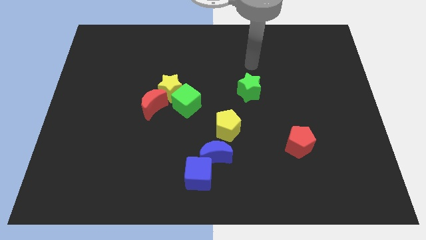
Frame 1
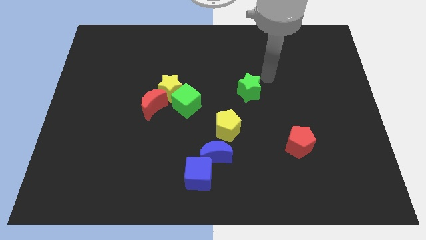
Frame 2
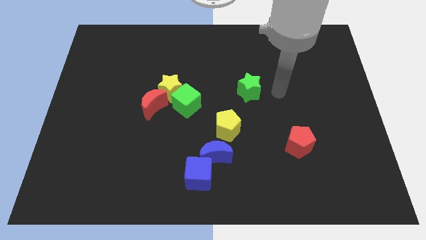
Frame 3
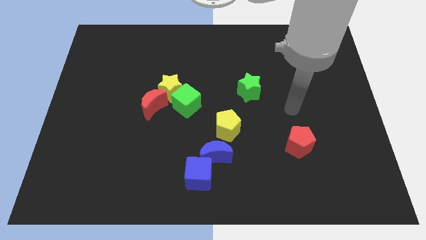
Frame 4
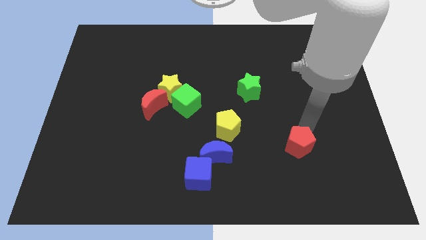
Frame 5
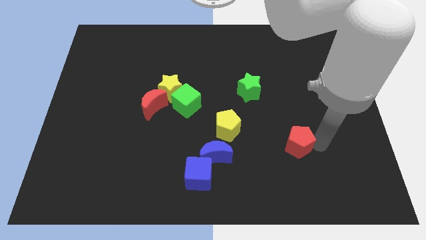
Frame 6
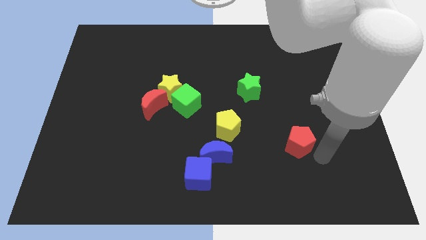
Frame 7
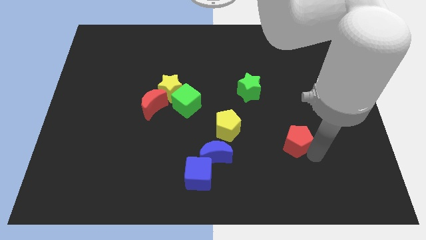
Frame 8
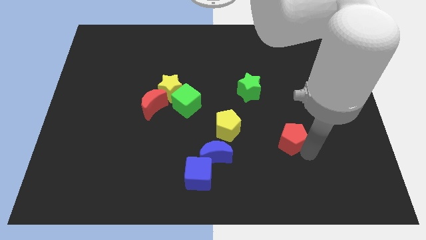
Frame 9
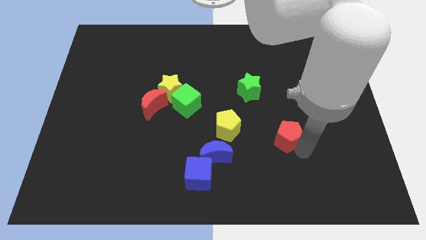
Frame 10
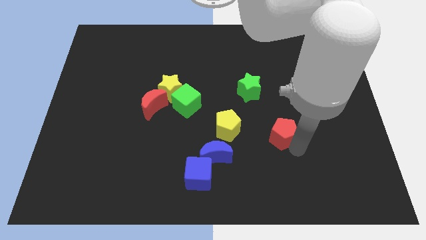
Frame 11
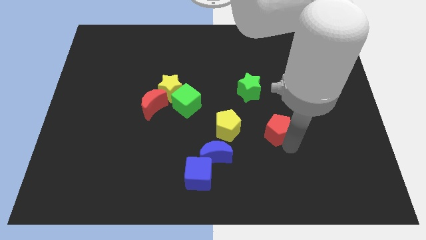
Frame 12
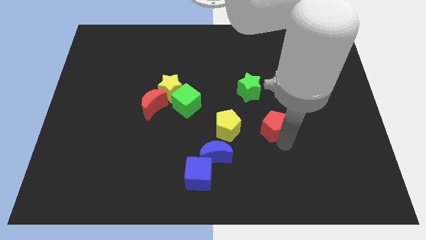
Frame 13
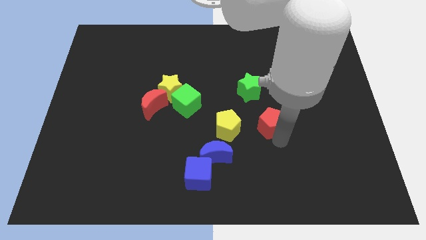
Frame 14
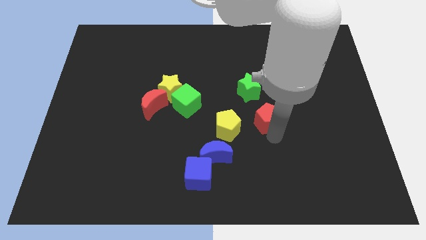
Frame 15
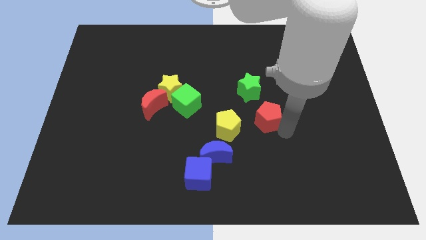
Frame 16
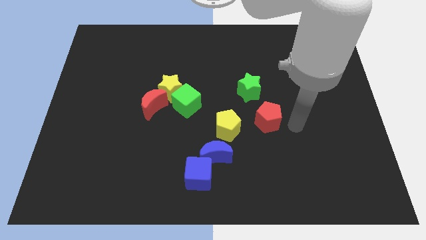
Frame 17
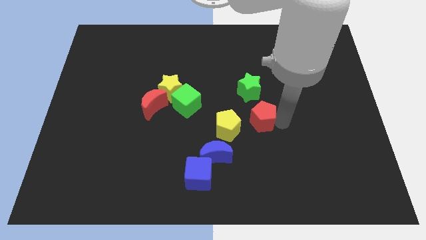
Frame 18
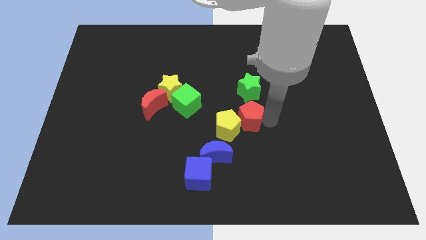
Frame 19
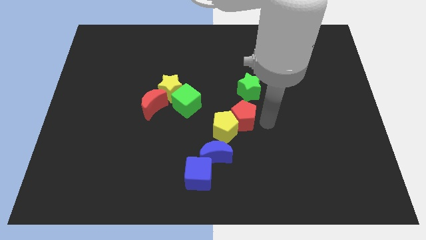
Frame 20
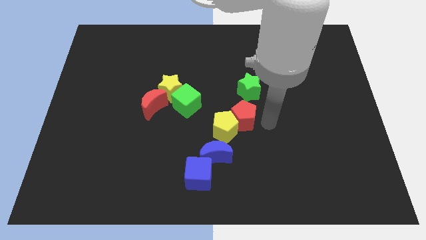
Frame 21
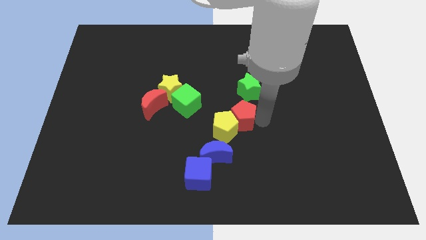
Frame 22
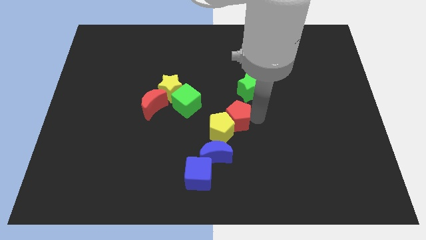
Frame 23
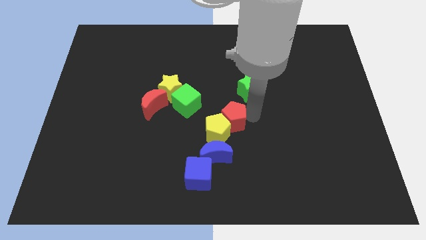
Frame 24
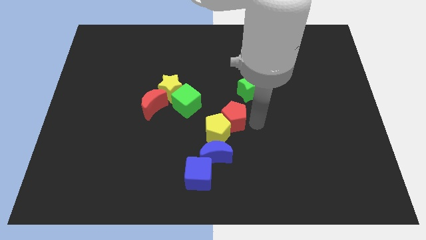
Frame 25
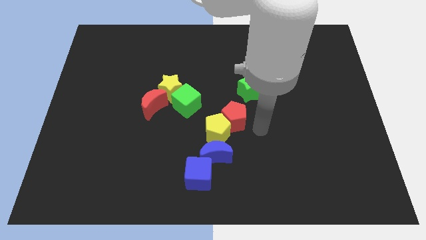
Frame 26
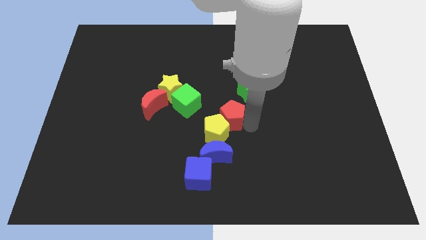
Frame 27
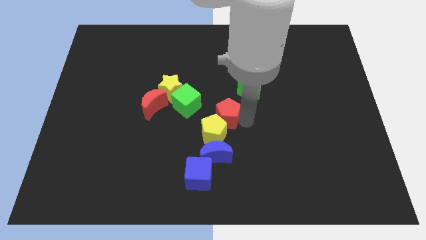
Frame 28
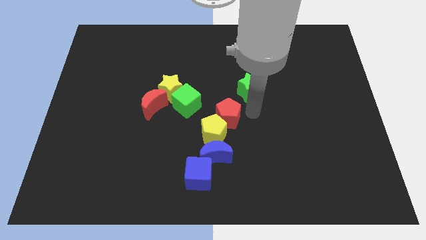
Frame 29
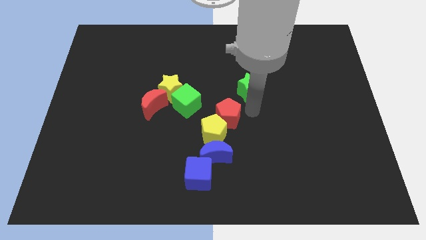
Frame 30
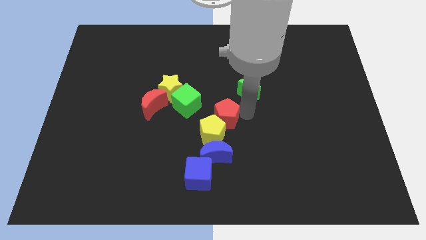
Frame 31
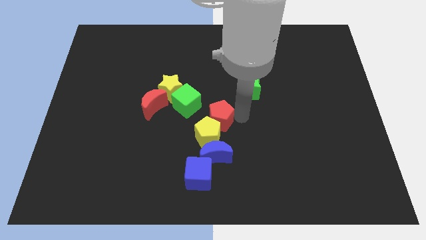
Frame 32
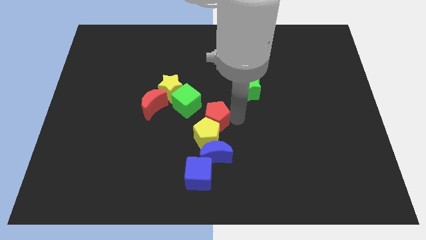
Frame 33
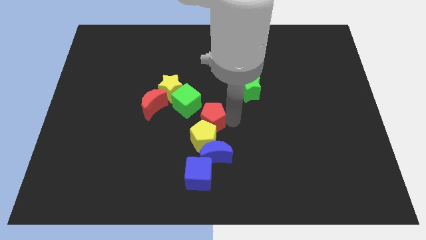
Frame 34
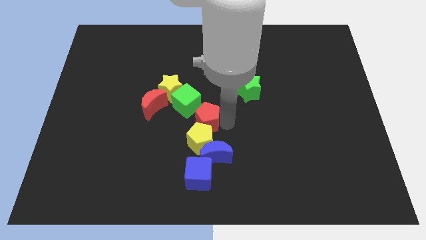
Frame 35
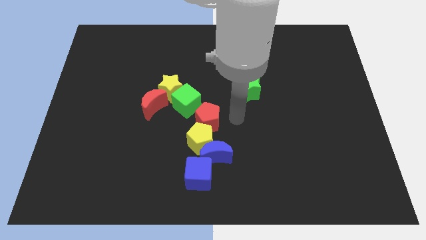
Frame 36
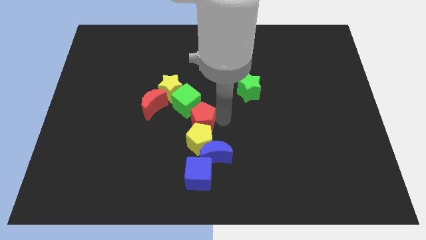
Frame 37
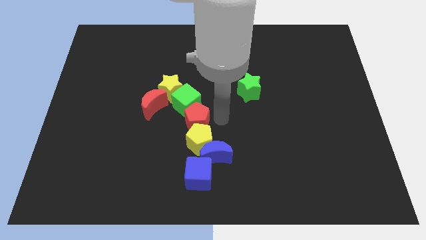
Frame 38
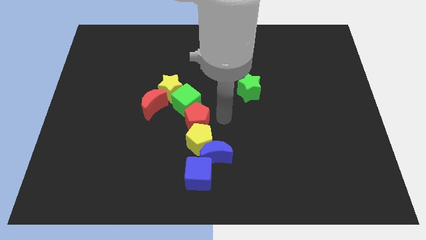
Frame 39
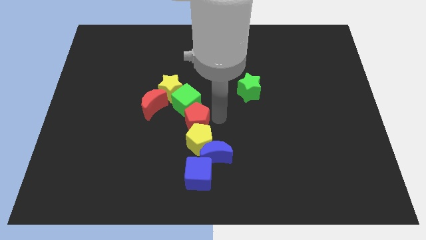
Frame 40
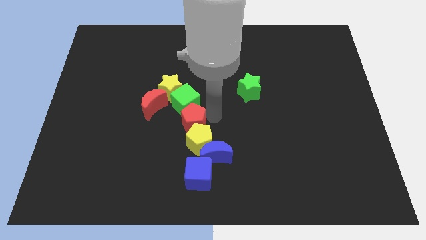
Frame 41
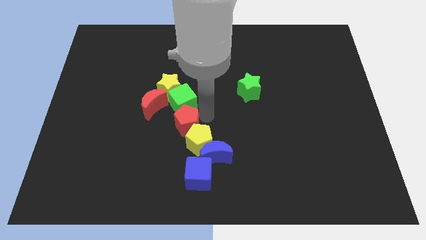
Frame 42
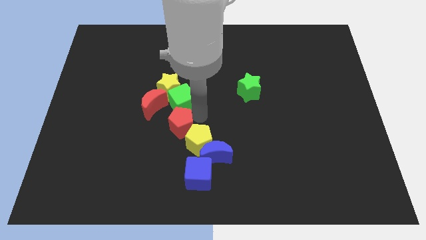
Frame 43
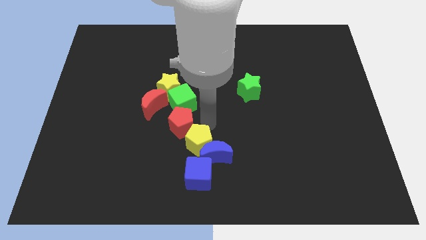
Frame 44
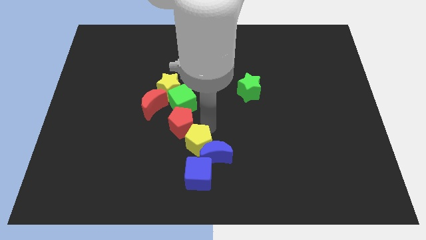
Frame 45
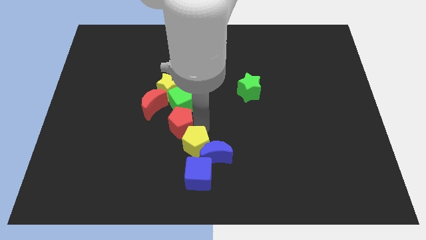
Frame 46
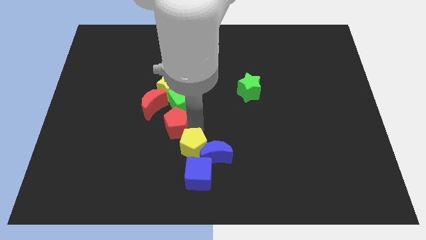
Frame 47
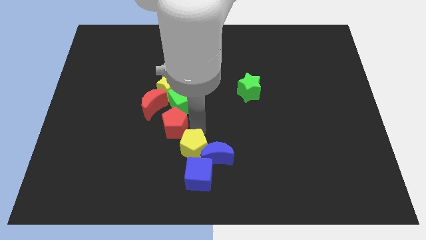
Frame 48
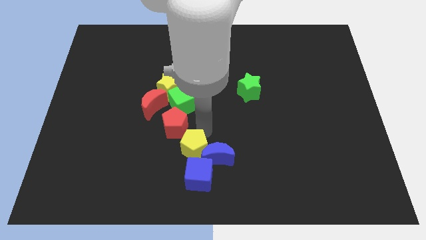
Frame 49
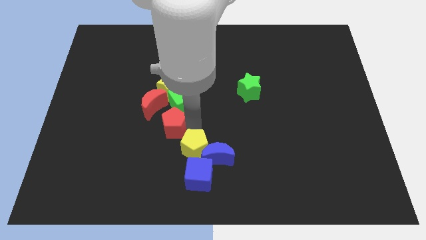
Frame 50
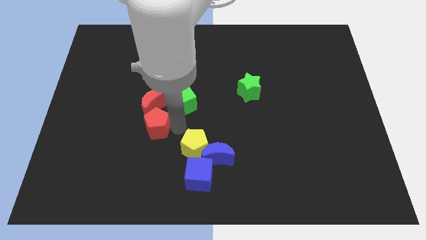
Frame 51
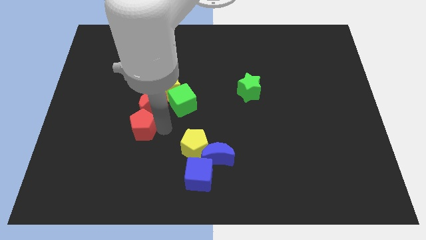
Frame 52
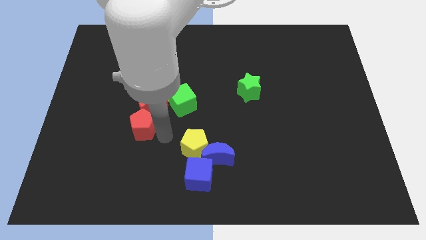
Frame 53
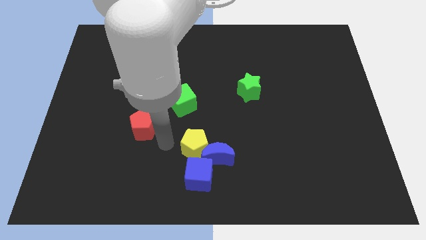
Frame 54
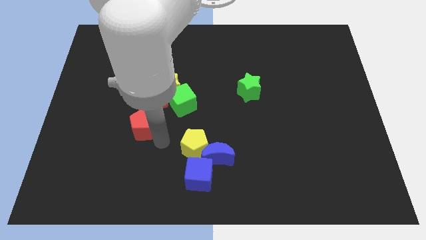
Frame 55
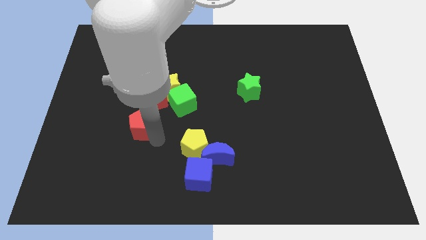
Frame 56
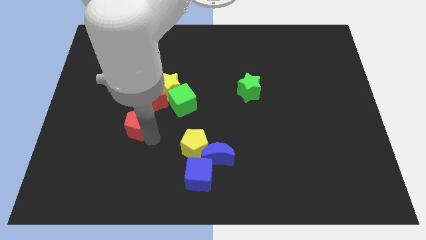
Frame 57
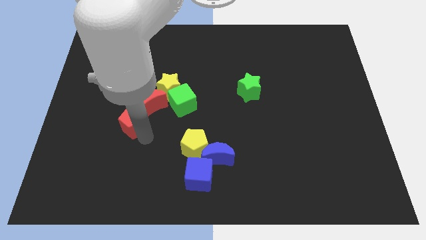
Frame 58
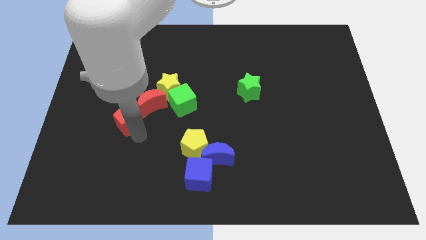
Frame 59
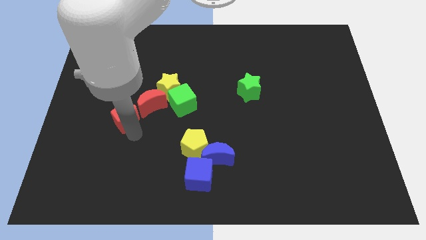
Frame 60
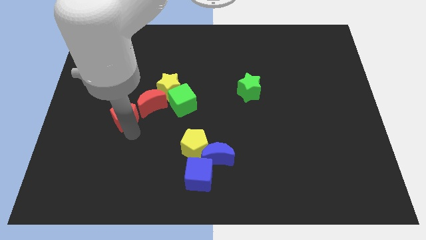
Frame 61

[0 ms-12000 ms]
push the red pentagon to the left side of the green cube
